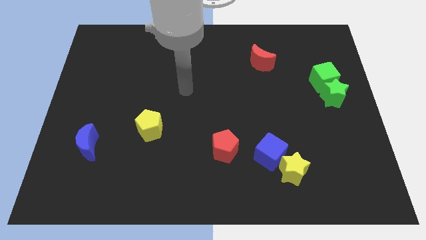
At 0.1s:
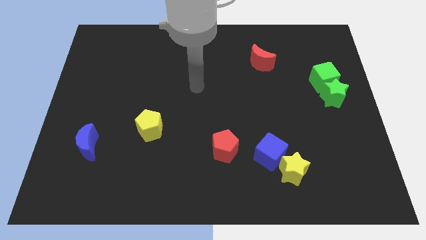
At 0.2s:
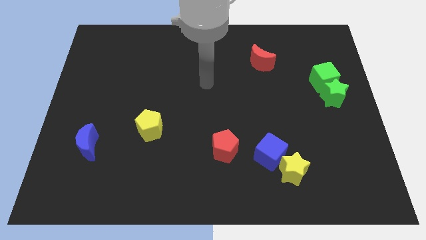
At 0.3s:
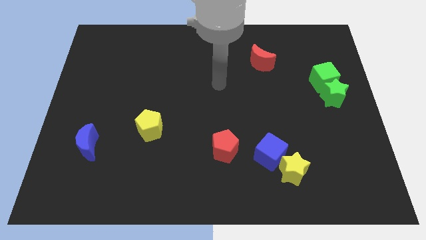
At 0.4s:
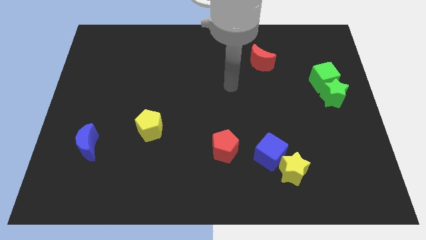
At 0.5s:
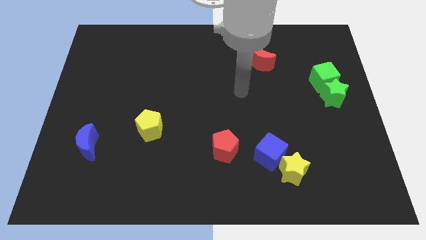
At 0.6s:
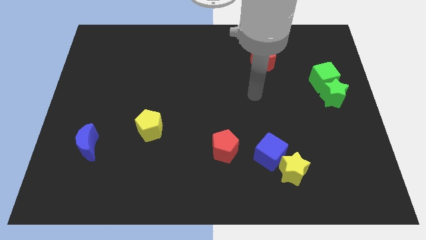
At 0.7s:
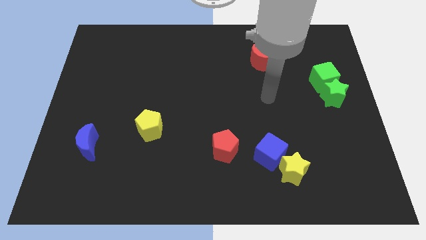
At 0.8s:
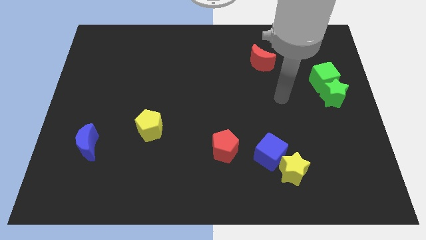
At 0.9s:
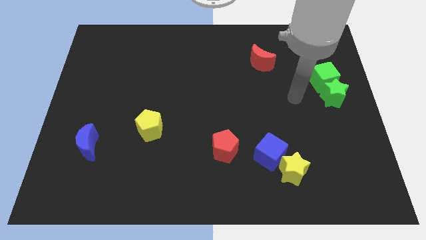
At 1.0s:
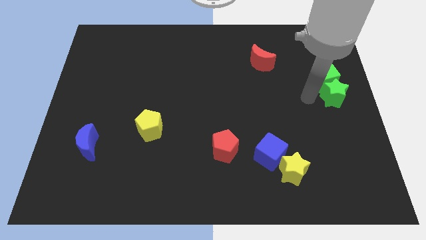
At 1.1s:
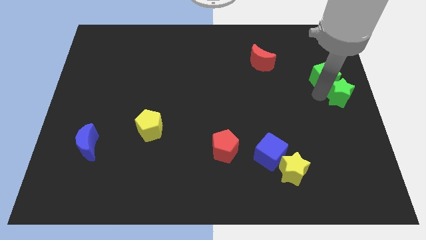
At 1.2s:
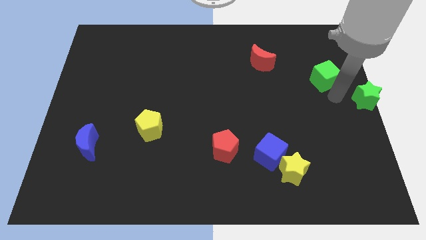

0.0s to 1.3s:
separate the green cube from the green star

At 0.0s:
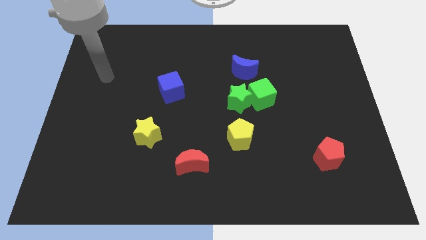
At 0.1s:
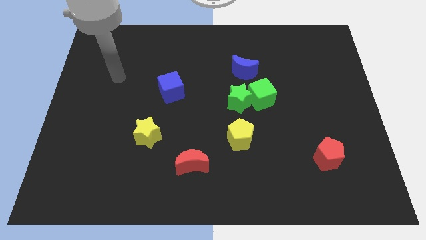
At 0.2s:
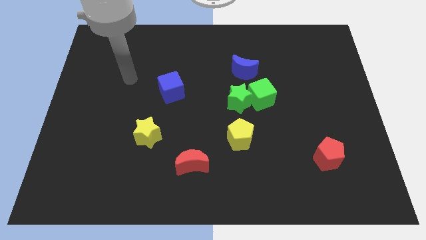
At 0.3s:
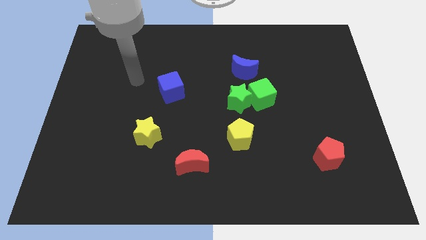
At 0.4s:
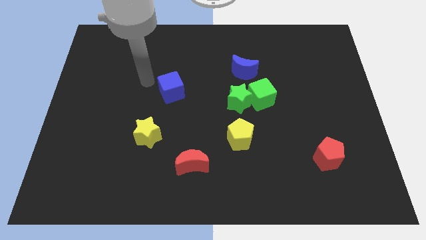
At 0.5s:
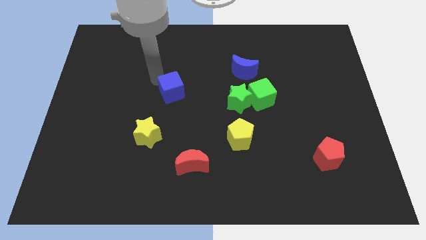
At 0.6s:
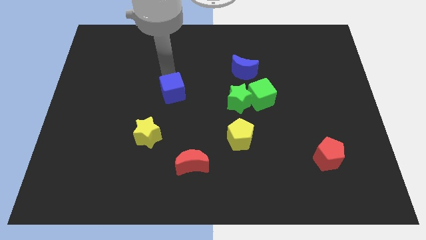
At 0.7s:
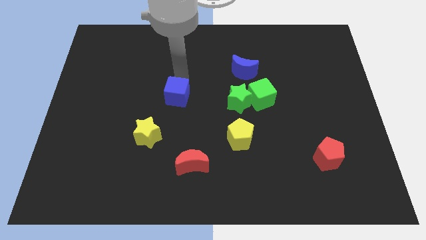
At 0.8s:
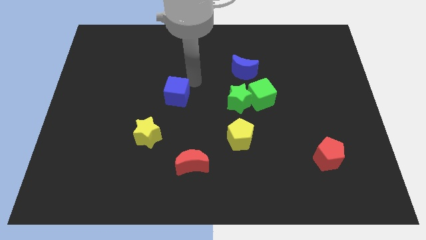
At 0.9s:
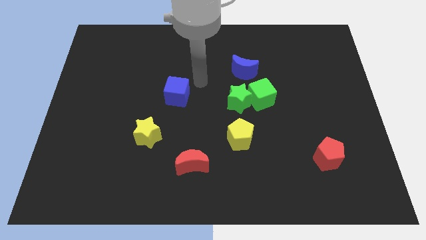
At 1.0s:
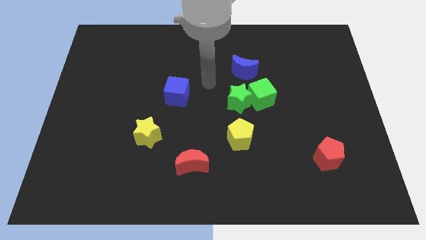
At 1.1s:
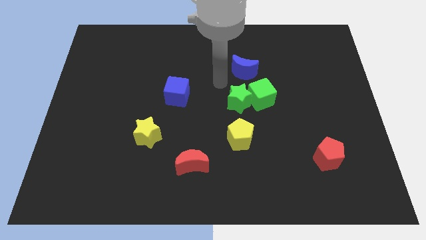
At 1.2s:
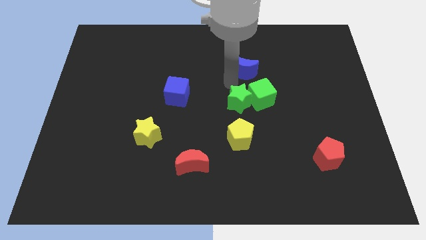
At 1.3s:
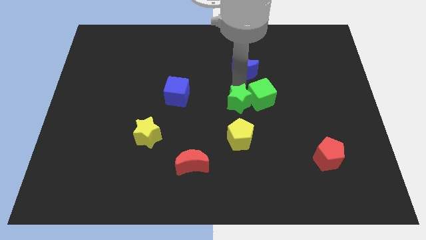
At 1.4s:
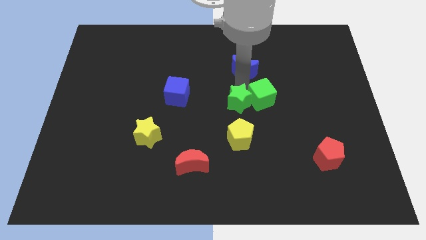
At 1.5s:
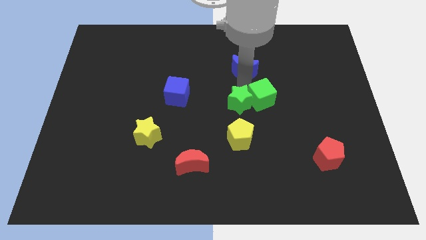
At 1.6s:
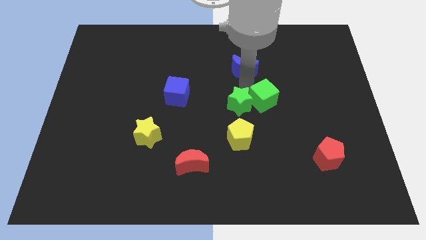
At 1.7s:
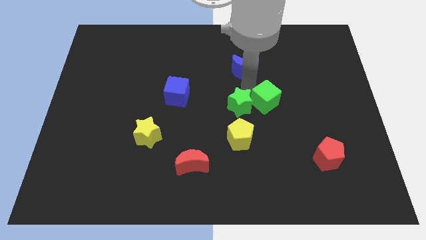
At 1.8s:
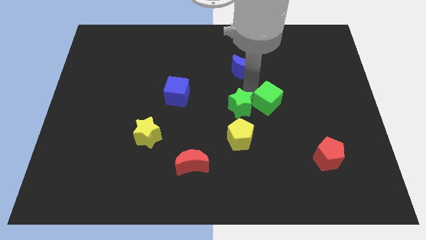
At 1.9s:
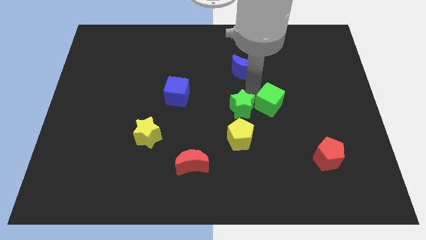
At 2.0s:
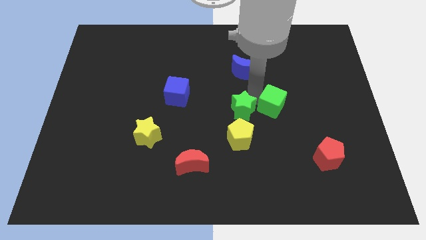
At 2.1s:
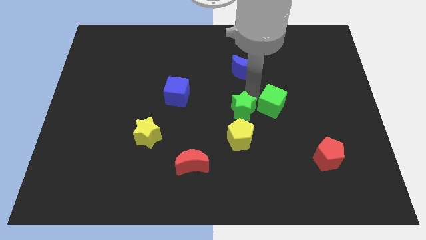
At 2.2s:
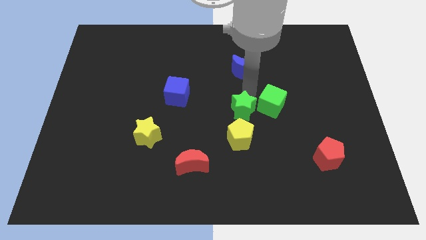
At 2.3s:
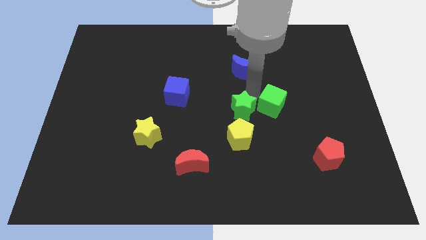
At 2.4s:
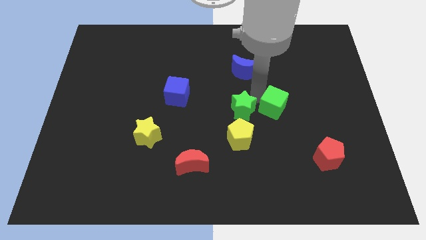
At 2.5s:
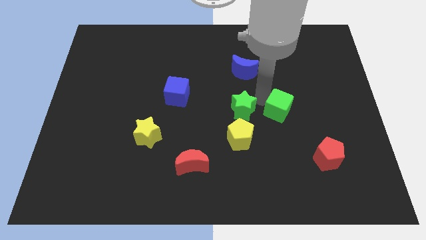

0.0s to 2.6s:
separate the green cube from the green star and blue moon

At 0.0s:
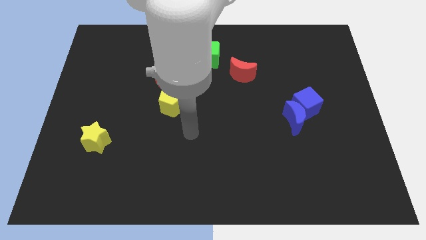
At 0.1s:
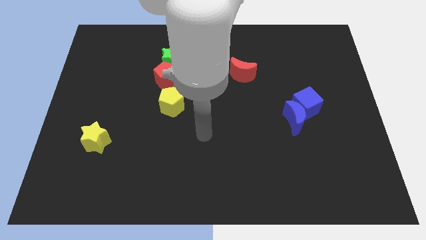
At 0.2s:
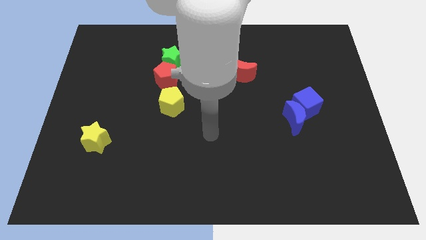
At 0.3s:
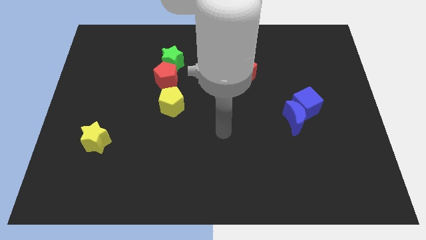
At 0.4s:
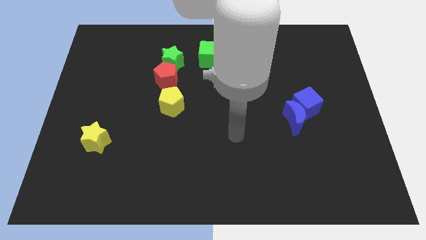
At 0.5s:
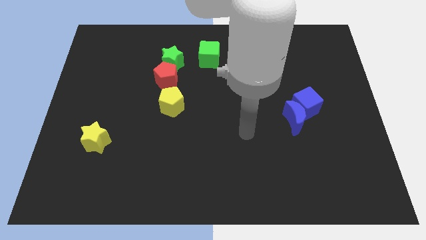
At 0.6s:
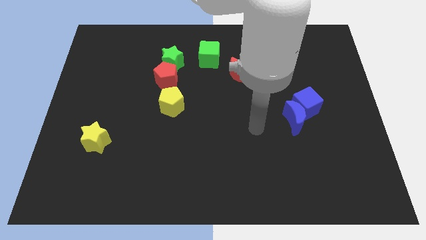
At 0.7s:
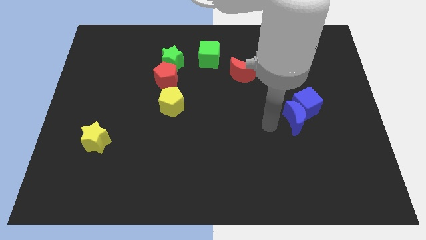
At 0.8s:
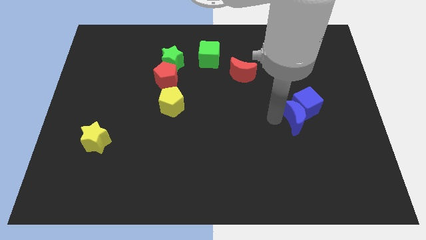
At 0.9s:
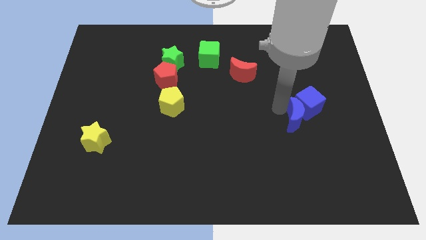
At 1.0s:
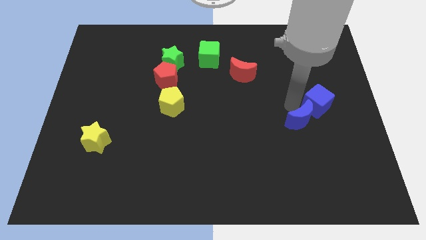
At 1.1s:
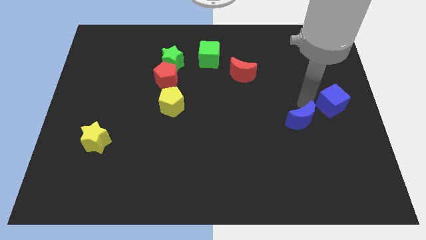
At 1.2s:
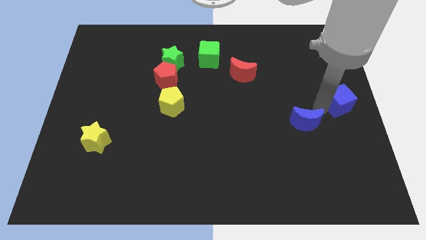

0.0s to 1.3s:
move the blue moon away from the blue cube

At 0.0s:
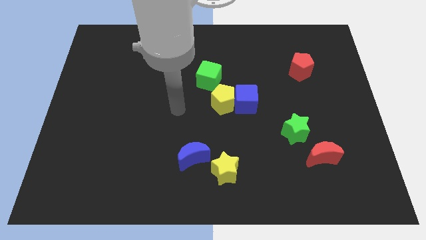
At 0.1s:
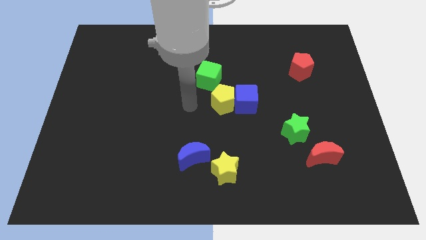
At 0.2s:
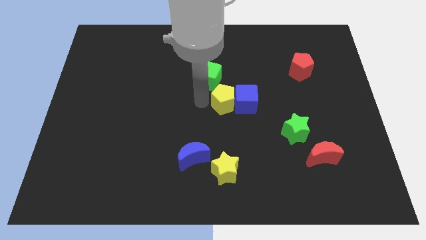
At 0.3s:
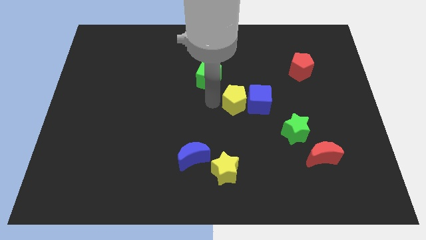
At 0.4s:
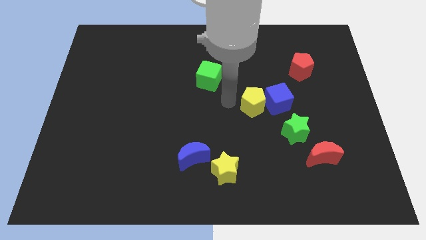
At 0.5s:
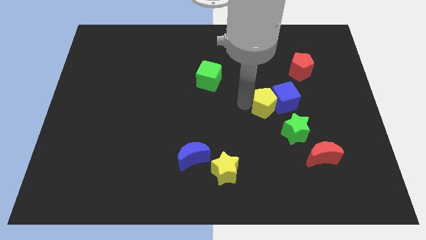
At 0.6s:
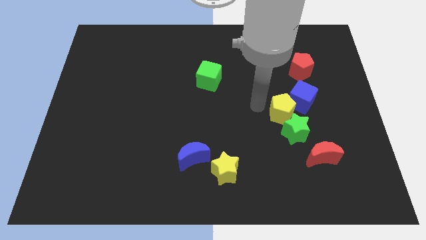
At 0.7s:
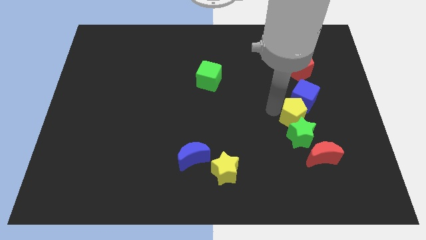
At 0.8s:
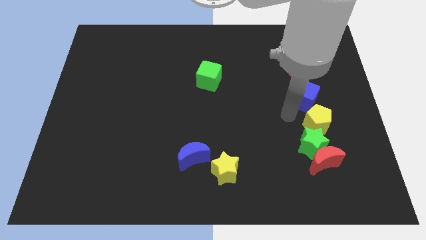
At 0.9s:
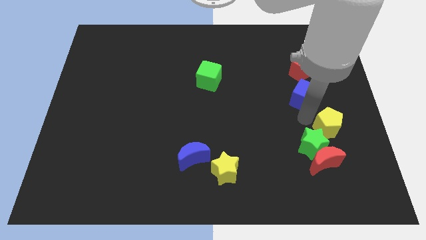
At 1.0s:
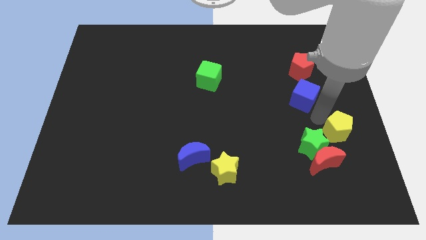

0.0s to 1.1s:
separate the blue cube from the yellow pentagon

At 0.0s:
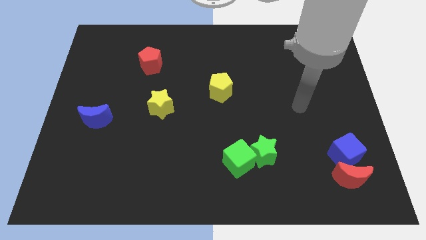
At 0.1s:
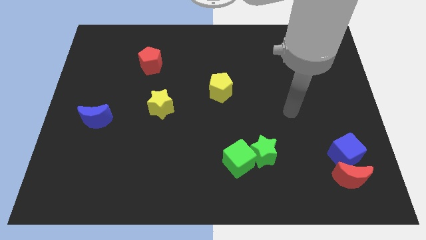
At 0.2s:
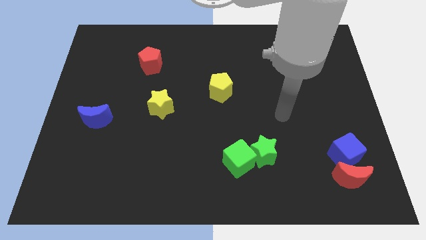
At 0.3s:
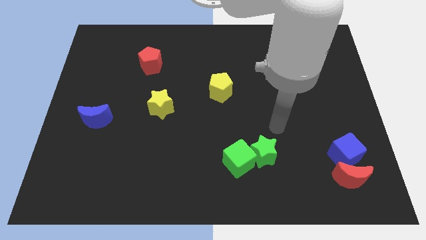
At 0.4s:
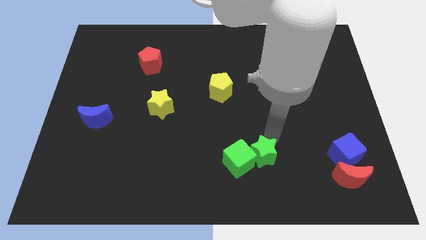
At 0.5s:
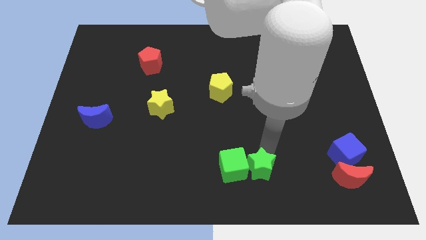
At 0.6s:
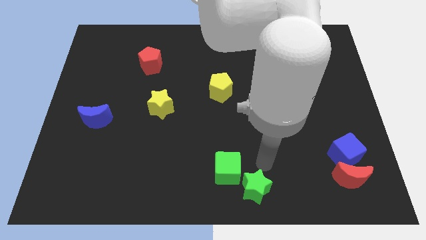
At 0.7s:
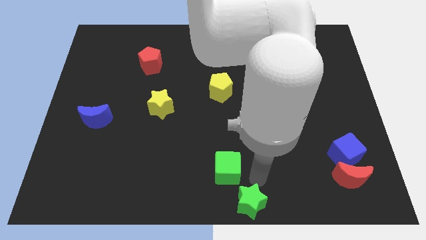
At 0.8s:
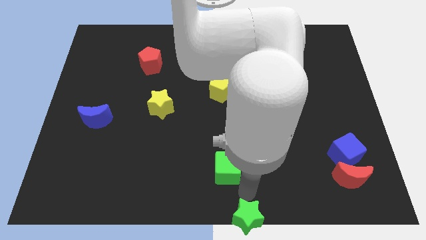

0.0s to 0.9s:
pull the green cube apart from the green star

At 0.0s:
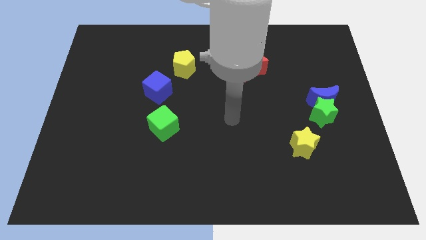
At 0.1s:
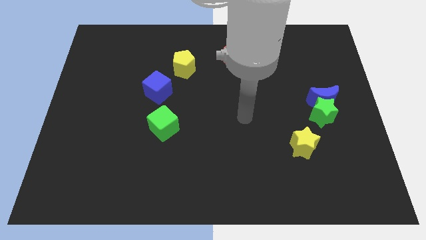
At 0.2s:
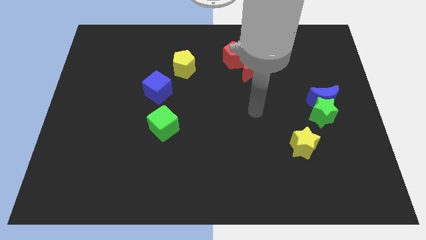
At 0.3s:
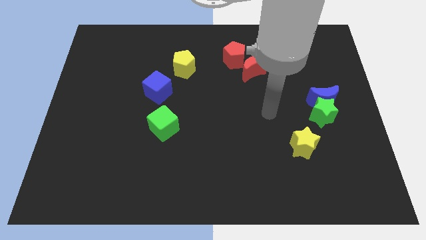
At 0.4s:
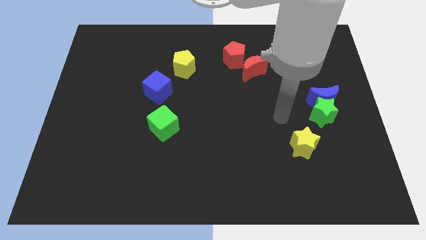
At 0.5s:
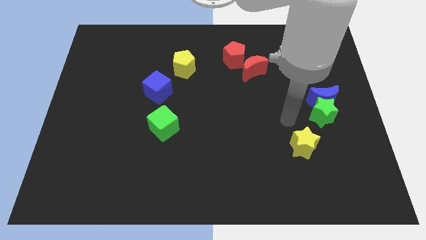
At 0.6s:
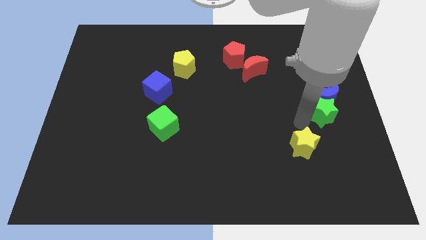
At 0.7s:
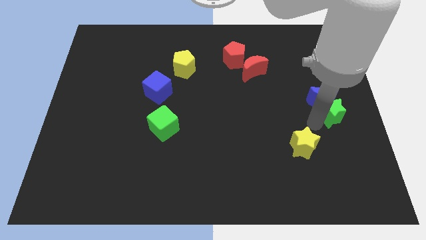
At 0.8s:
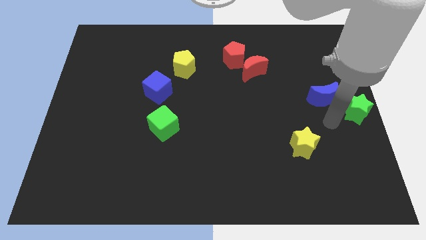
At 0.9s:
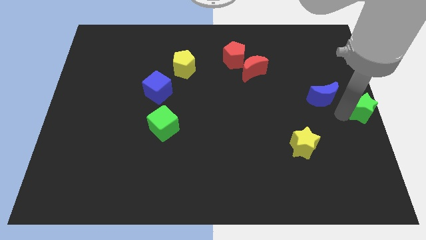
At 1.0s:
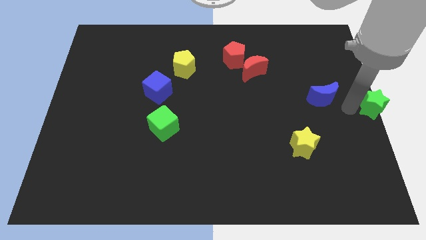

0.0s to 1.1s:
pull the blue moon apart from the green star

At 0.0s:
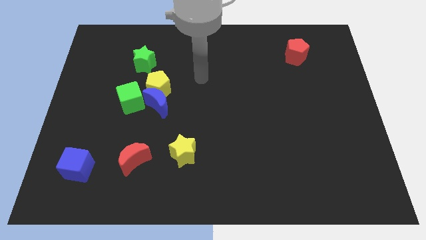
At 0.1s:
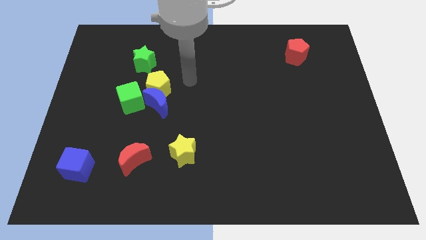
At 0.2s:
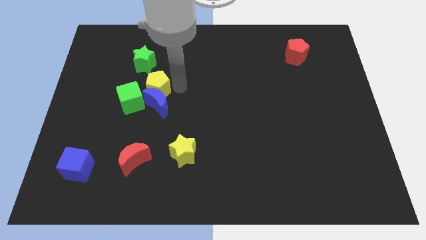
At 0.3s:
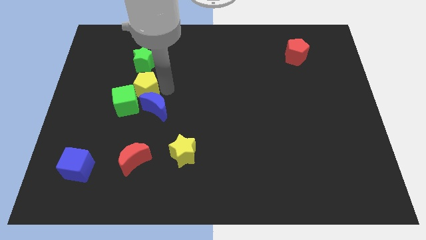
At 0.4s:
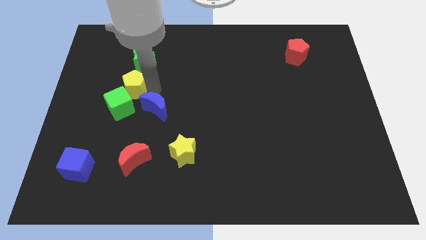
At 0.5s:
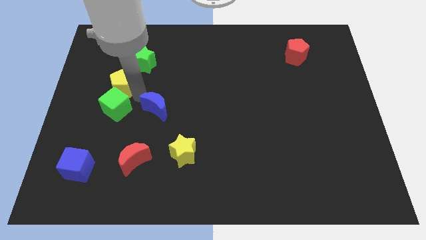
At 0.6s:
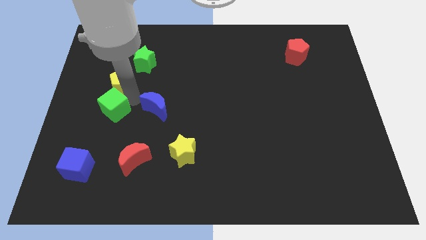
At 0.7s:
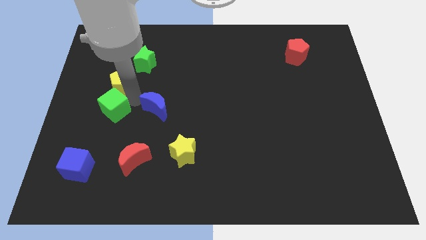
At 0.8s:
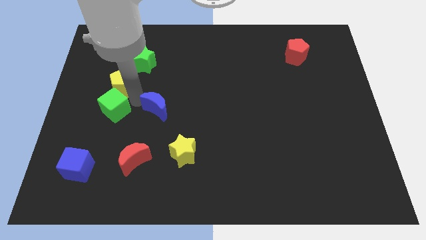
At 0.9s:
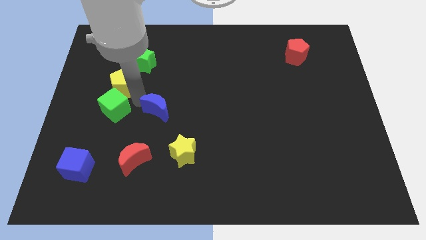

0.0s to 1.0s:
move the blue moon away from the yellow pentagon and green cube
